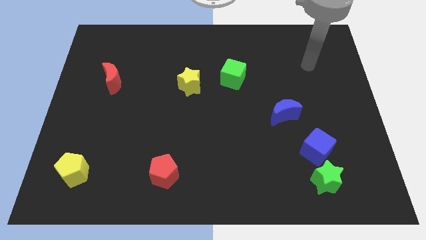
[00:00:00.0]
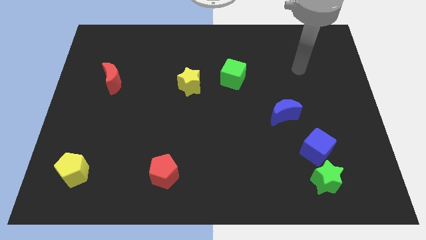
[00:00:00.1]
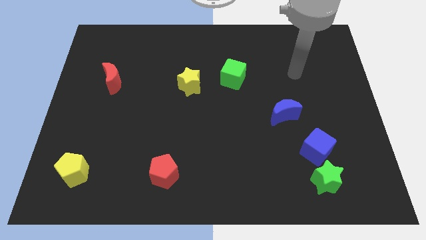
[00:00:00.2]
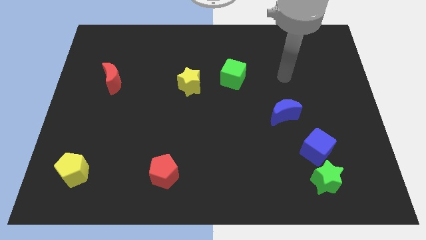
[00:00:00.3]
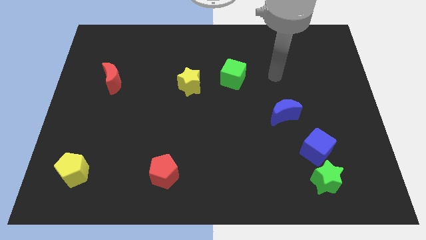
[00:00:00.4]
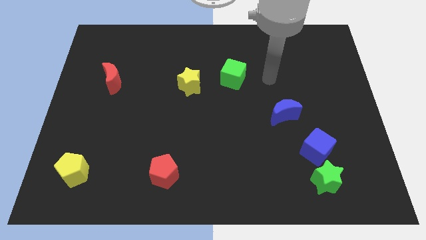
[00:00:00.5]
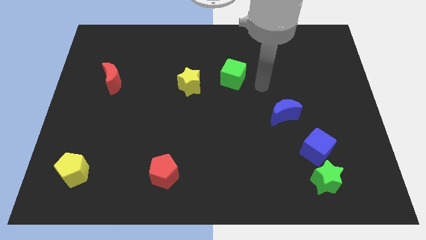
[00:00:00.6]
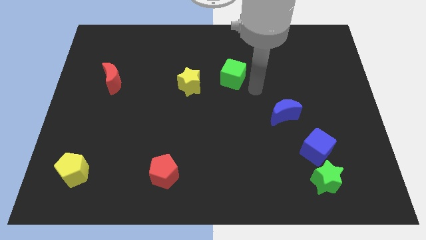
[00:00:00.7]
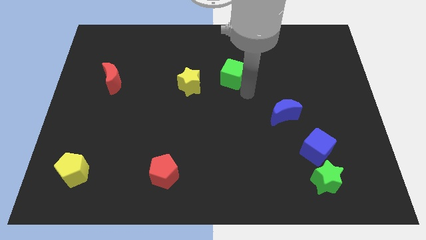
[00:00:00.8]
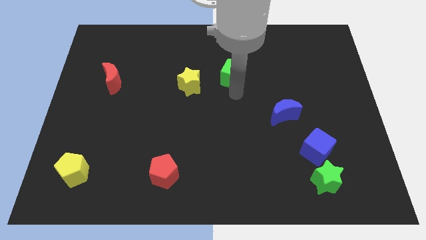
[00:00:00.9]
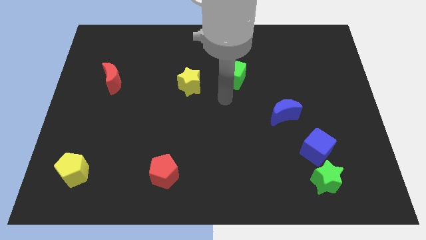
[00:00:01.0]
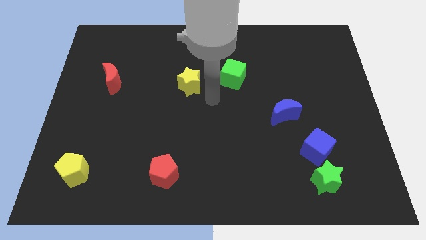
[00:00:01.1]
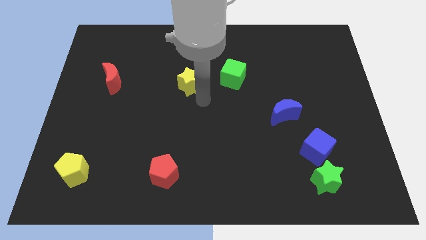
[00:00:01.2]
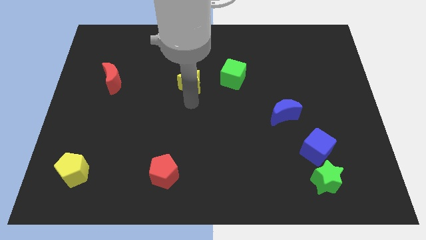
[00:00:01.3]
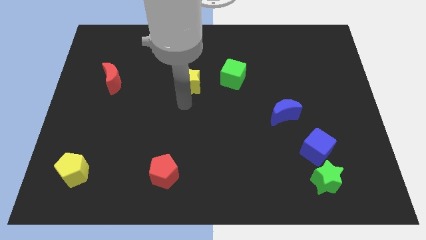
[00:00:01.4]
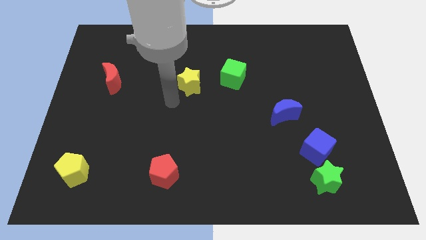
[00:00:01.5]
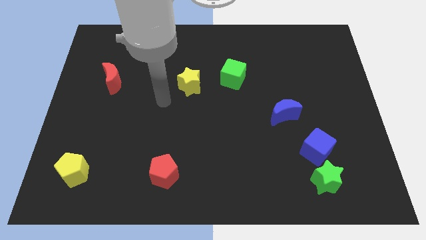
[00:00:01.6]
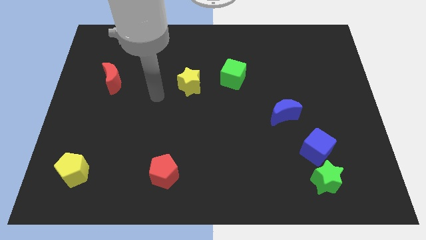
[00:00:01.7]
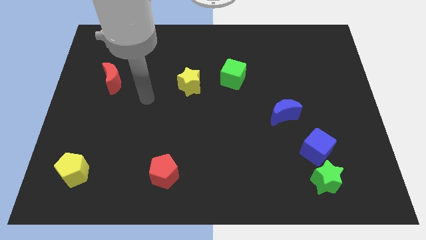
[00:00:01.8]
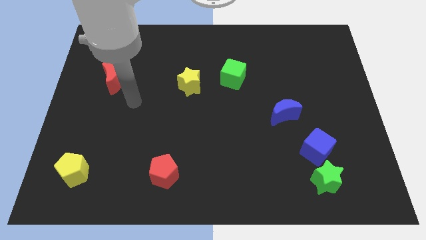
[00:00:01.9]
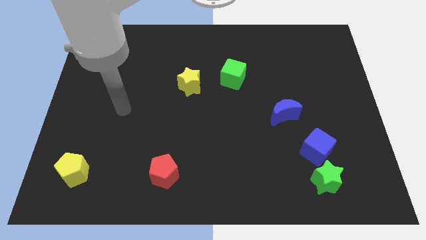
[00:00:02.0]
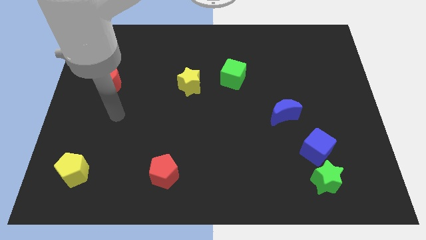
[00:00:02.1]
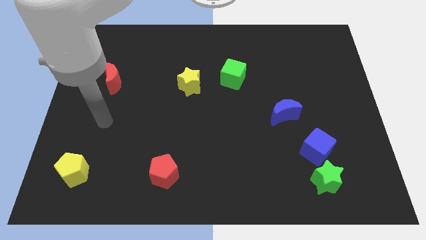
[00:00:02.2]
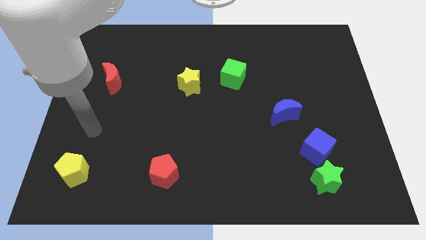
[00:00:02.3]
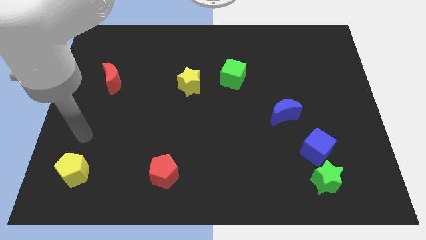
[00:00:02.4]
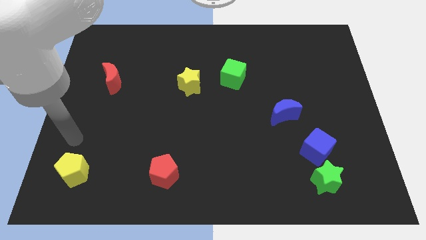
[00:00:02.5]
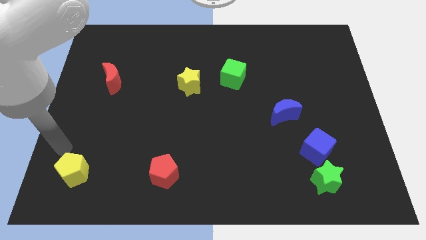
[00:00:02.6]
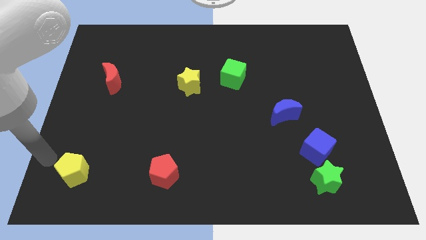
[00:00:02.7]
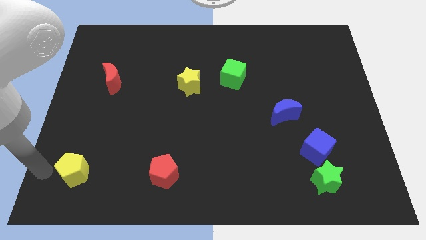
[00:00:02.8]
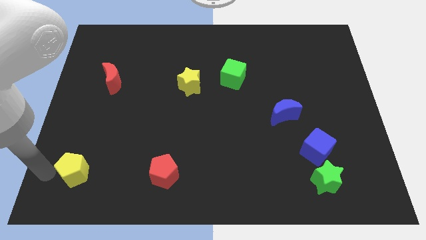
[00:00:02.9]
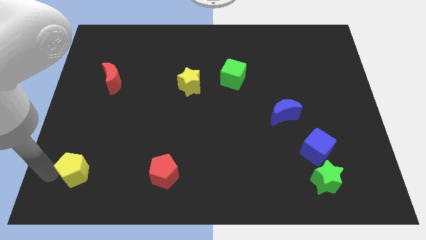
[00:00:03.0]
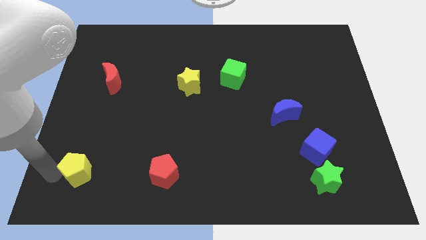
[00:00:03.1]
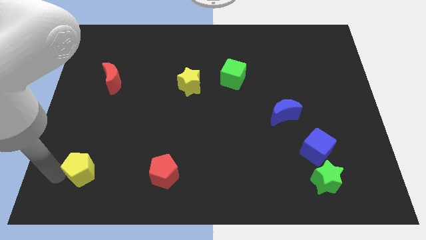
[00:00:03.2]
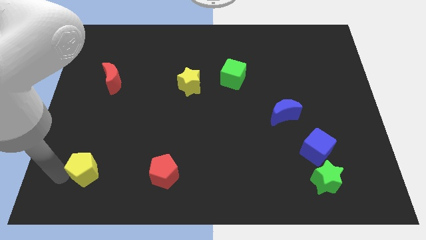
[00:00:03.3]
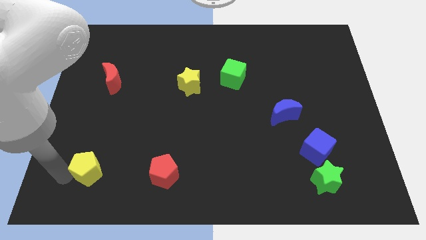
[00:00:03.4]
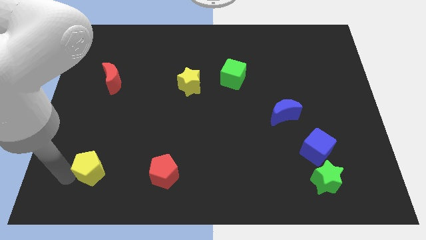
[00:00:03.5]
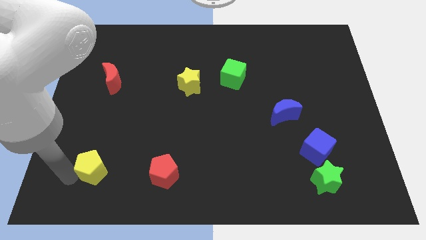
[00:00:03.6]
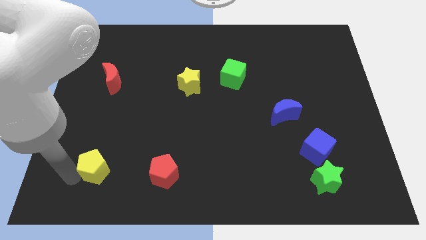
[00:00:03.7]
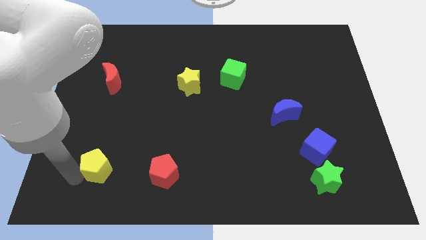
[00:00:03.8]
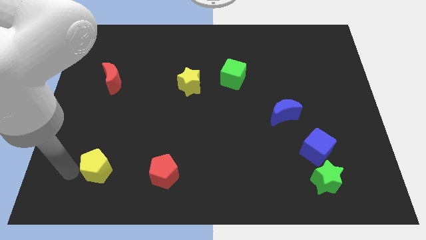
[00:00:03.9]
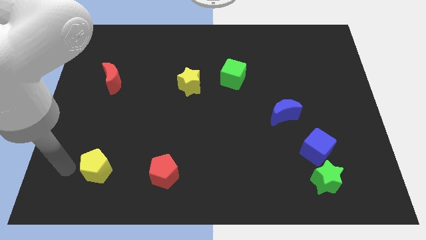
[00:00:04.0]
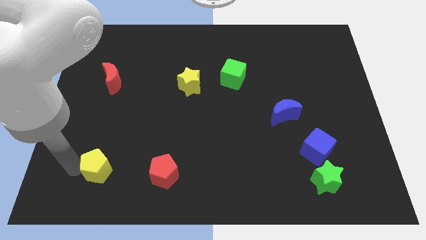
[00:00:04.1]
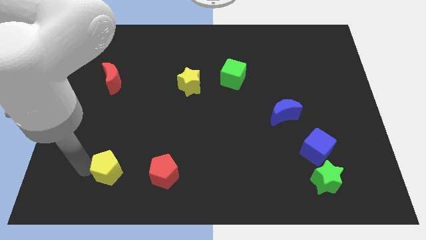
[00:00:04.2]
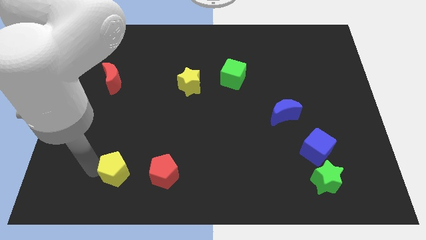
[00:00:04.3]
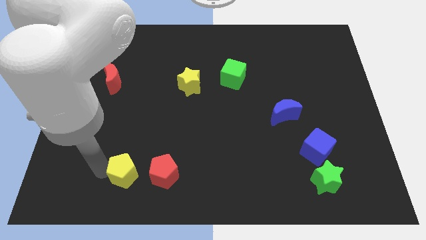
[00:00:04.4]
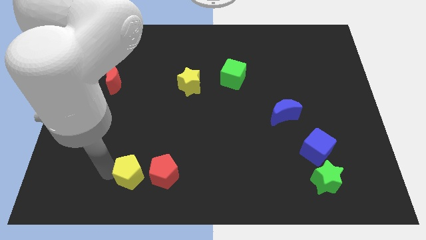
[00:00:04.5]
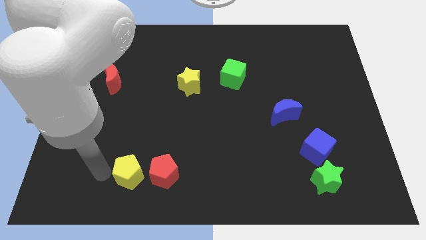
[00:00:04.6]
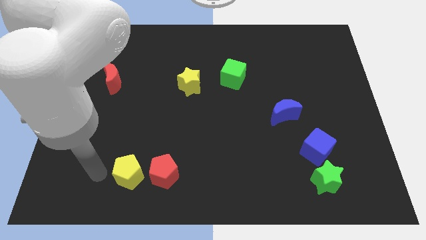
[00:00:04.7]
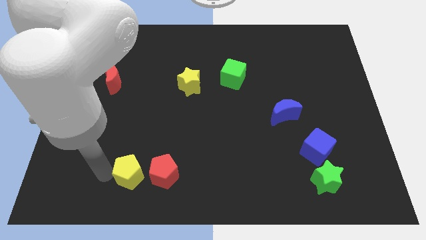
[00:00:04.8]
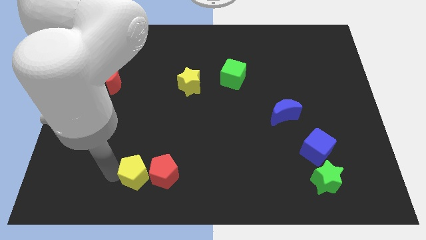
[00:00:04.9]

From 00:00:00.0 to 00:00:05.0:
put the yellow pentagon next to the red pentagon

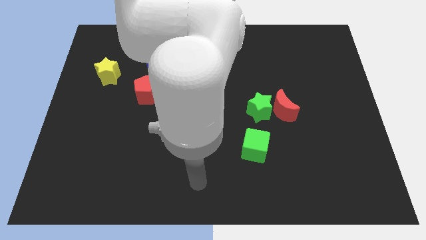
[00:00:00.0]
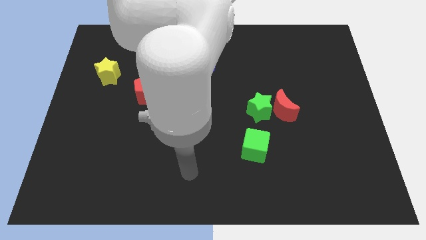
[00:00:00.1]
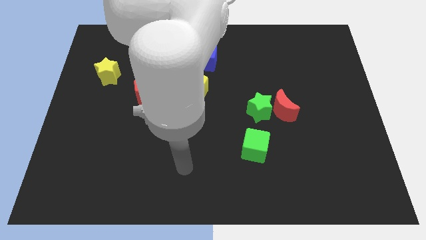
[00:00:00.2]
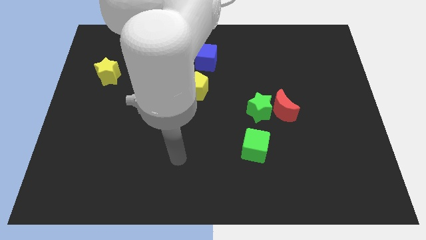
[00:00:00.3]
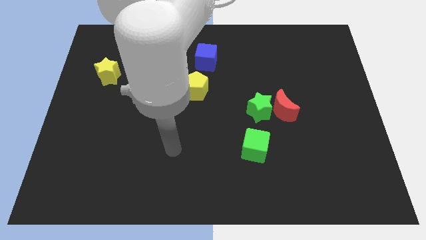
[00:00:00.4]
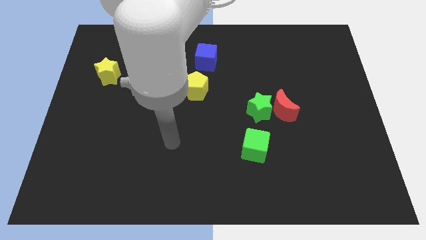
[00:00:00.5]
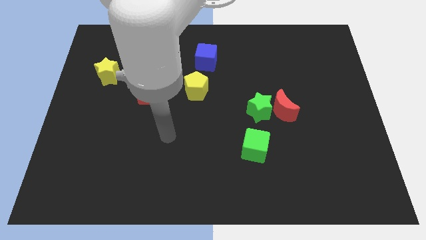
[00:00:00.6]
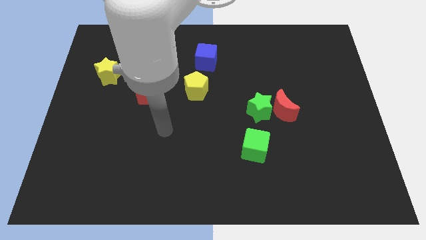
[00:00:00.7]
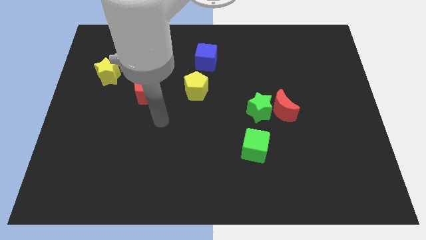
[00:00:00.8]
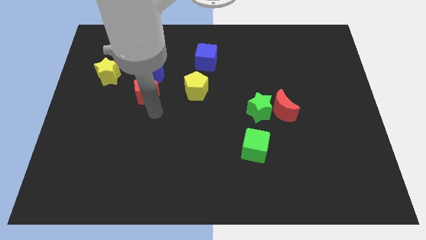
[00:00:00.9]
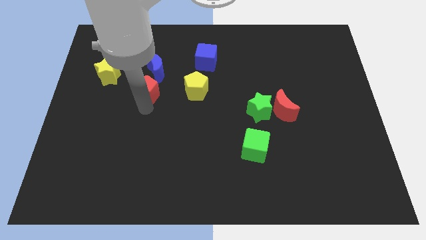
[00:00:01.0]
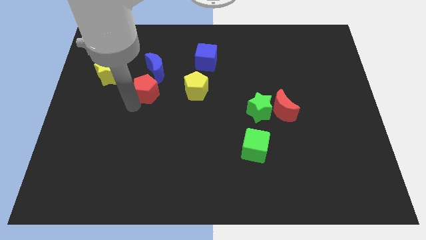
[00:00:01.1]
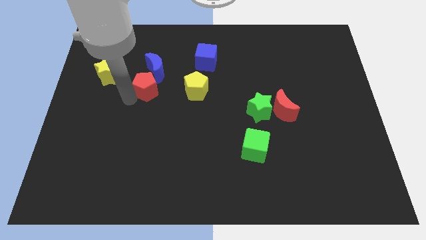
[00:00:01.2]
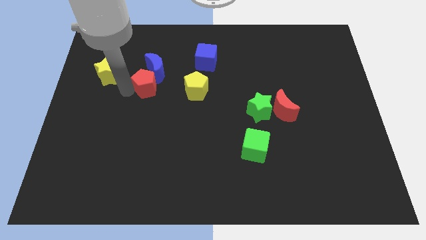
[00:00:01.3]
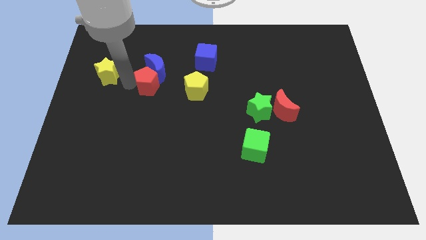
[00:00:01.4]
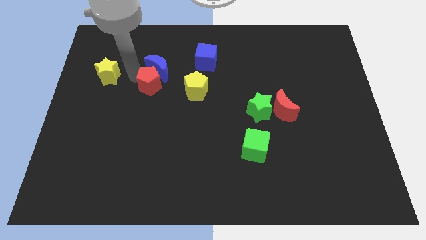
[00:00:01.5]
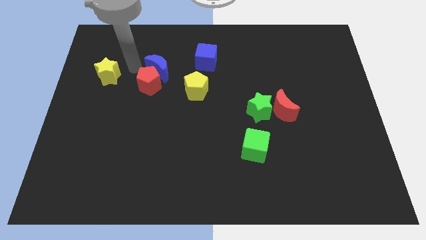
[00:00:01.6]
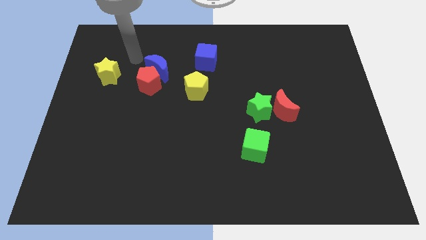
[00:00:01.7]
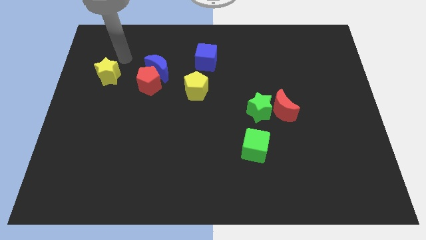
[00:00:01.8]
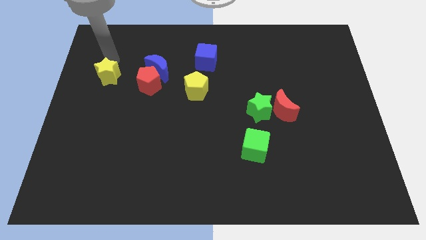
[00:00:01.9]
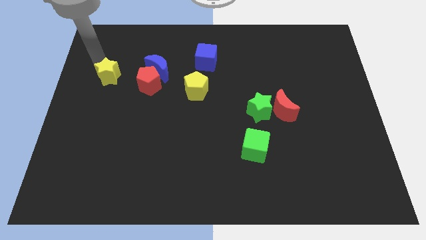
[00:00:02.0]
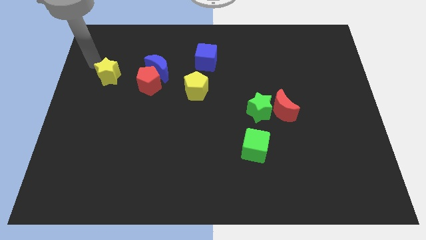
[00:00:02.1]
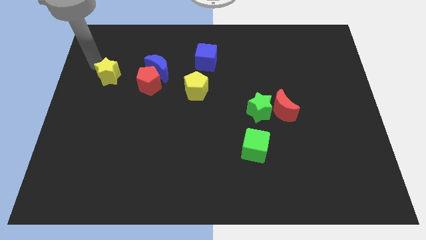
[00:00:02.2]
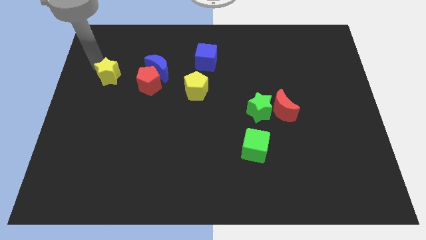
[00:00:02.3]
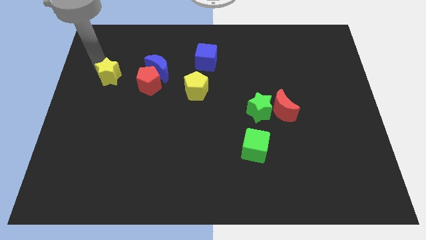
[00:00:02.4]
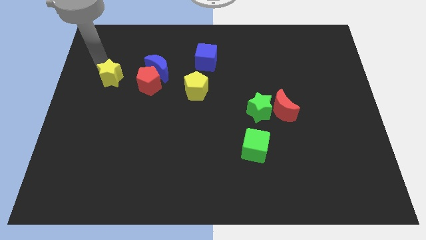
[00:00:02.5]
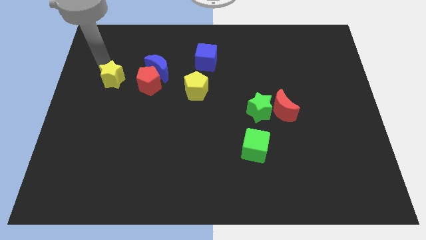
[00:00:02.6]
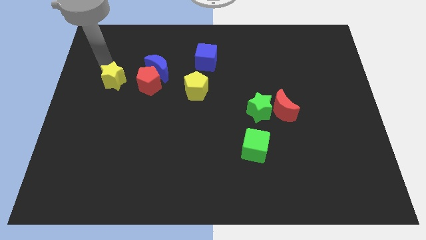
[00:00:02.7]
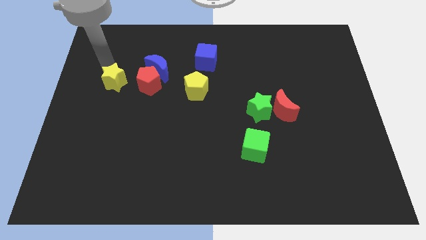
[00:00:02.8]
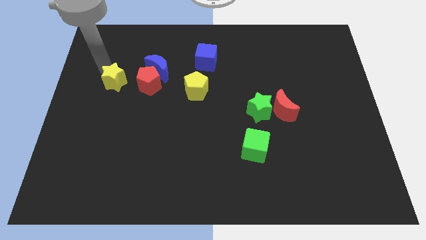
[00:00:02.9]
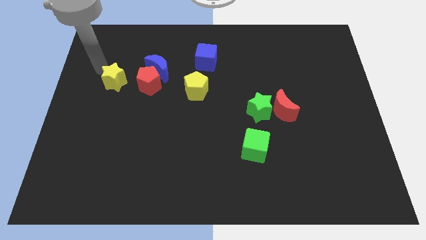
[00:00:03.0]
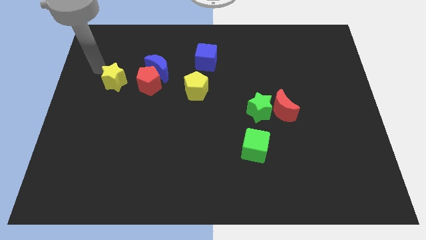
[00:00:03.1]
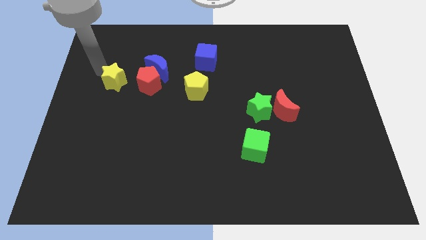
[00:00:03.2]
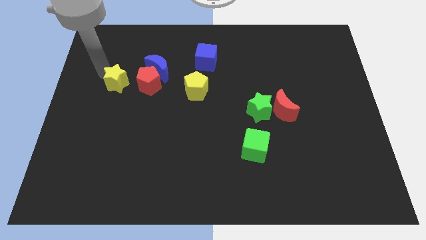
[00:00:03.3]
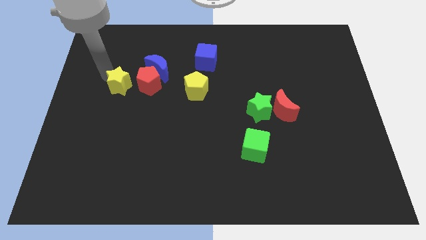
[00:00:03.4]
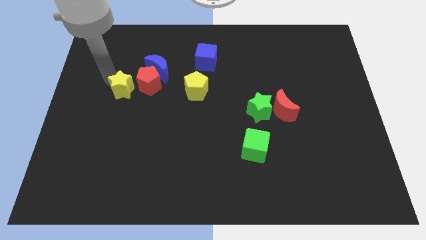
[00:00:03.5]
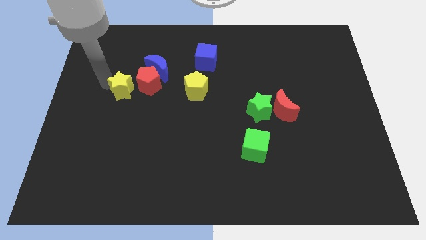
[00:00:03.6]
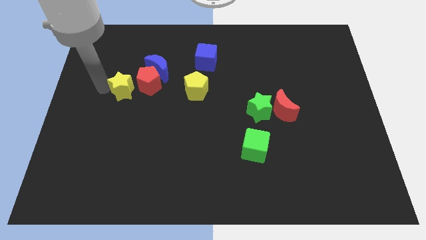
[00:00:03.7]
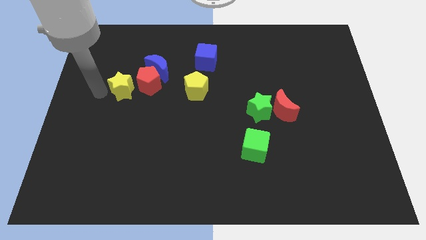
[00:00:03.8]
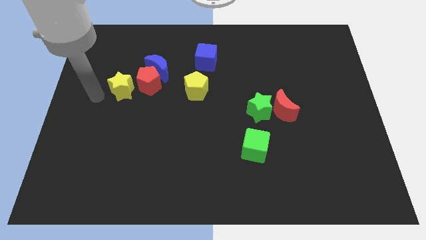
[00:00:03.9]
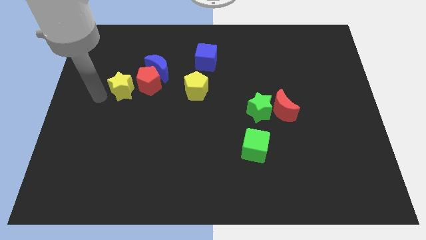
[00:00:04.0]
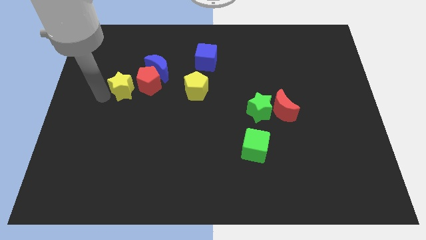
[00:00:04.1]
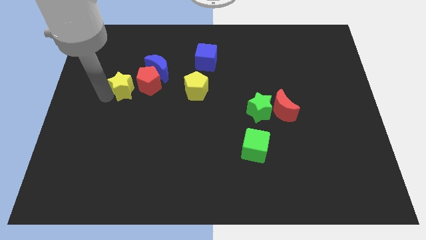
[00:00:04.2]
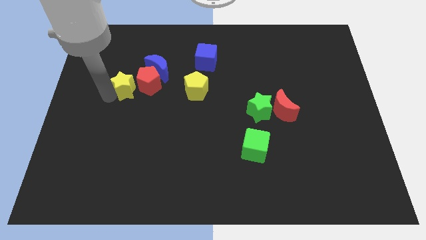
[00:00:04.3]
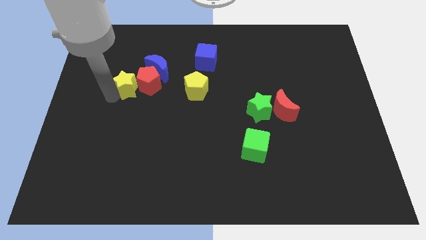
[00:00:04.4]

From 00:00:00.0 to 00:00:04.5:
put the yellow star towards the red pentagon
